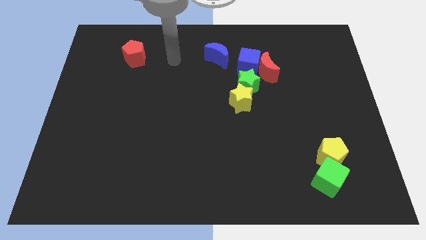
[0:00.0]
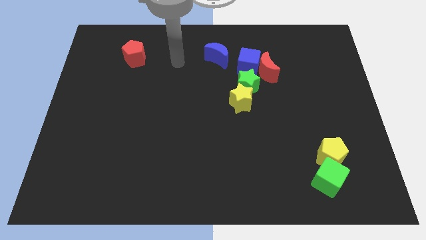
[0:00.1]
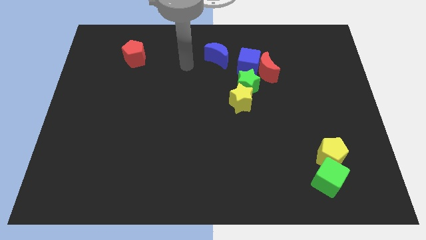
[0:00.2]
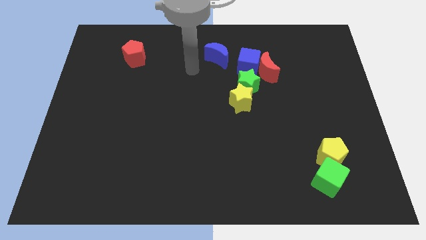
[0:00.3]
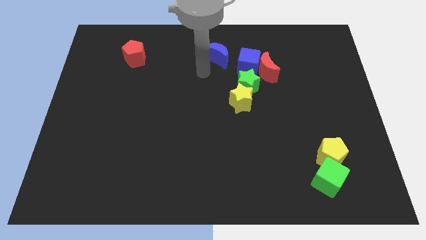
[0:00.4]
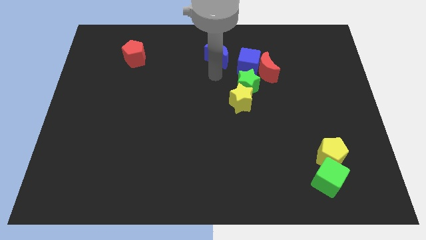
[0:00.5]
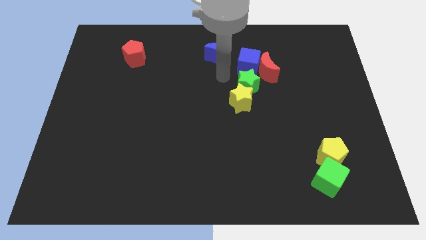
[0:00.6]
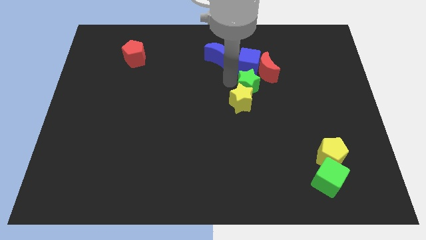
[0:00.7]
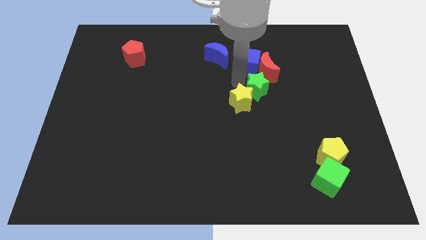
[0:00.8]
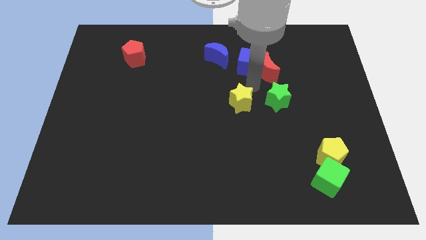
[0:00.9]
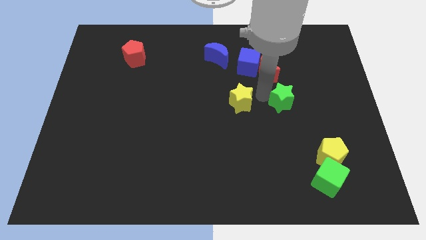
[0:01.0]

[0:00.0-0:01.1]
move the yellow star away from the green star

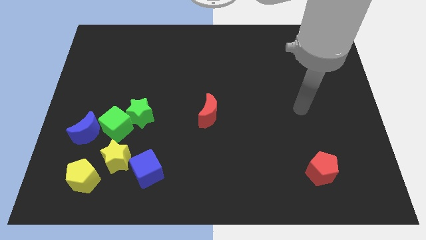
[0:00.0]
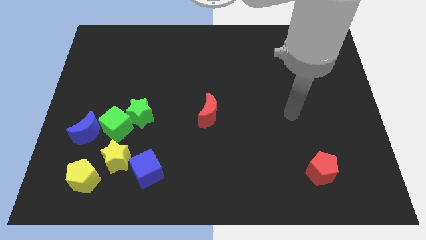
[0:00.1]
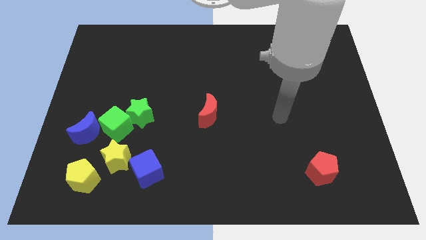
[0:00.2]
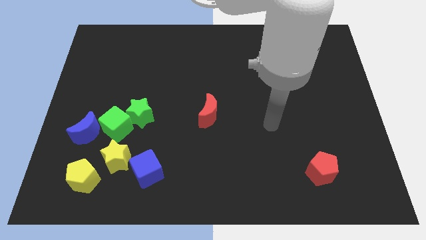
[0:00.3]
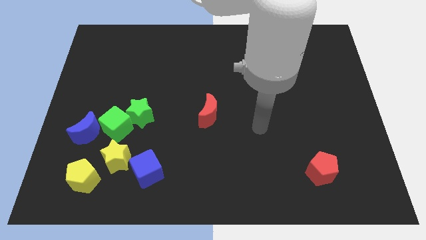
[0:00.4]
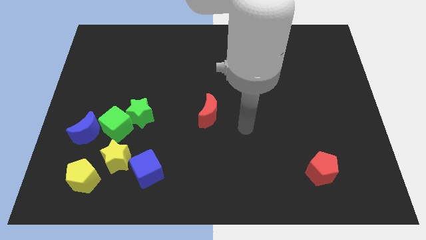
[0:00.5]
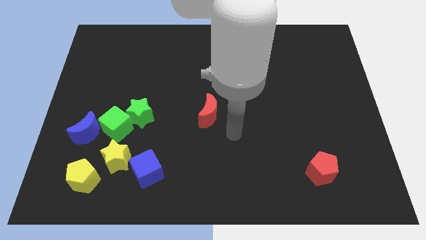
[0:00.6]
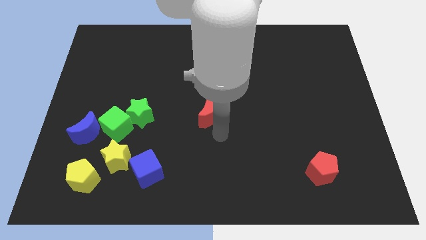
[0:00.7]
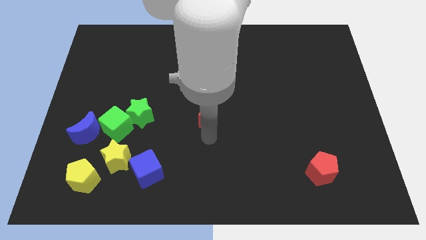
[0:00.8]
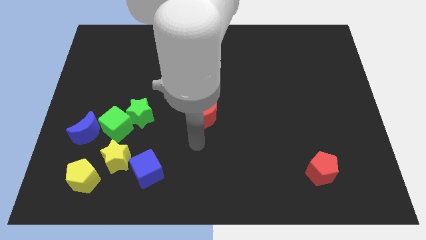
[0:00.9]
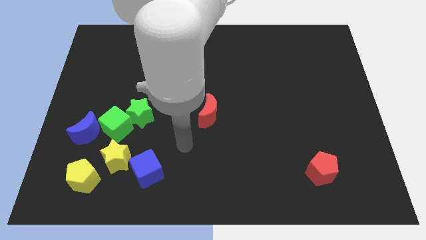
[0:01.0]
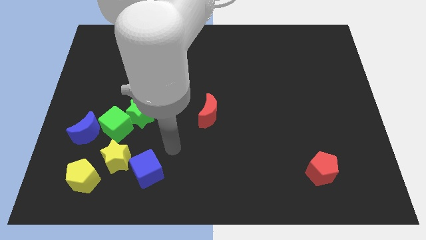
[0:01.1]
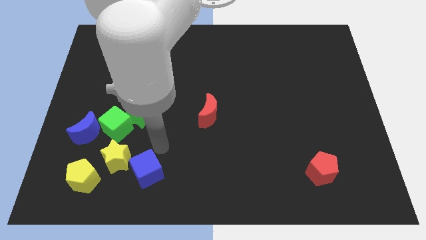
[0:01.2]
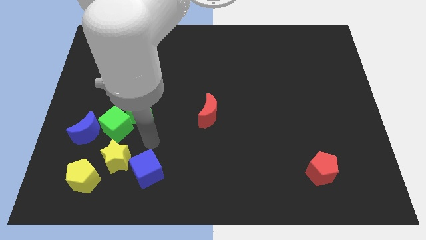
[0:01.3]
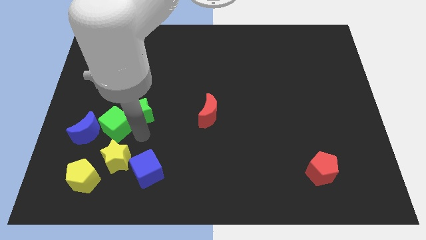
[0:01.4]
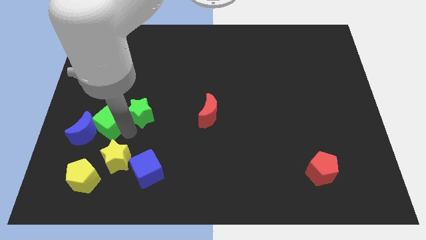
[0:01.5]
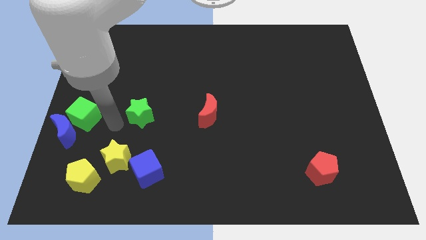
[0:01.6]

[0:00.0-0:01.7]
pull the green star apart from the green cube

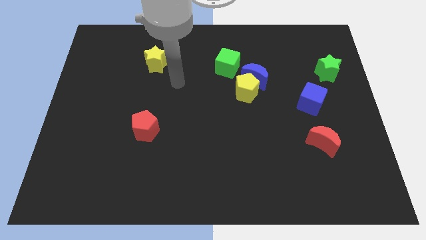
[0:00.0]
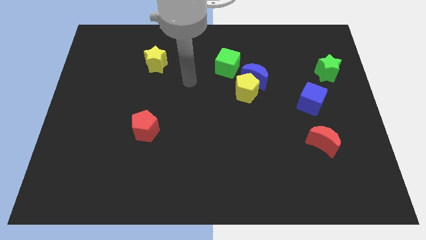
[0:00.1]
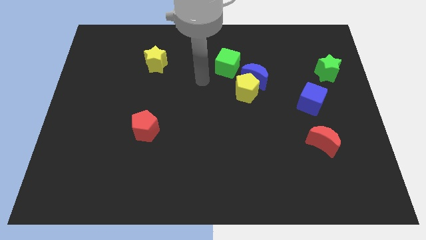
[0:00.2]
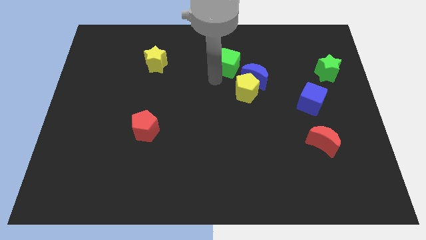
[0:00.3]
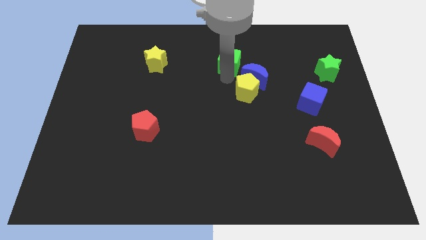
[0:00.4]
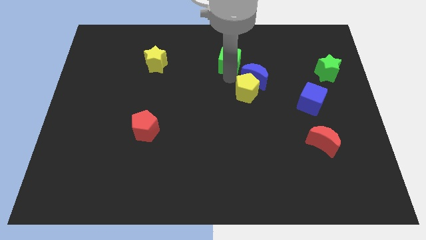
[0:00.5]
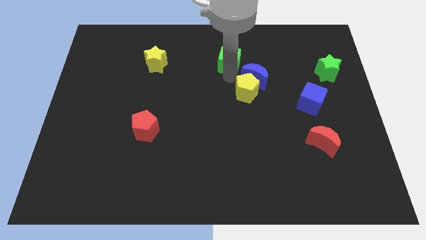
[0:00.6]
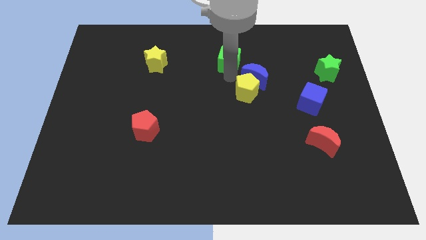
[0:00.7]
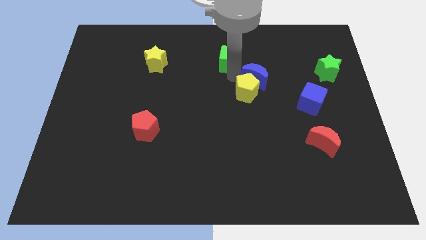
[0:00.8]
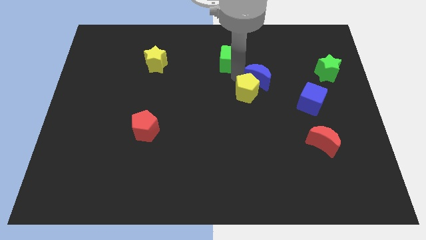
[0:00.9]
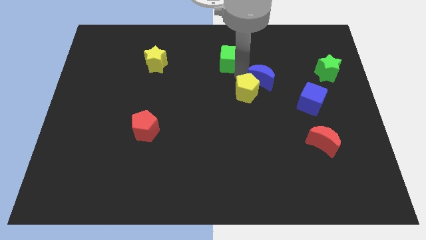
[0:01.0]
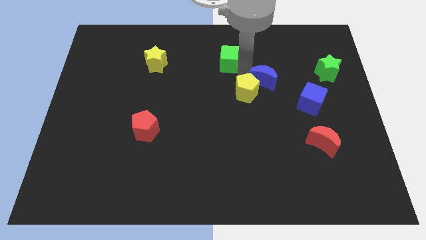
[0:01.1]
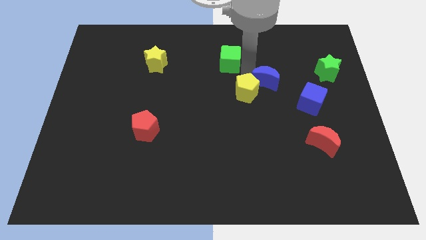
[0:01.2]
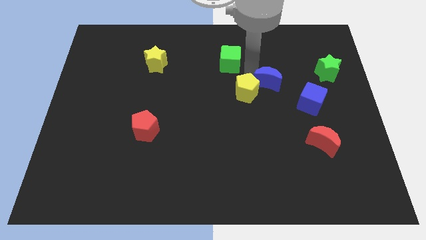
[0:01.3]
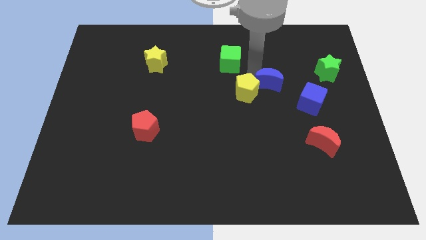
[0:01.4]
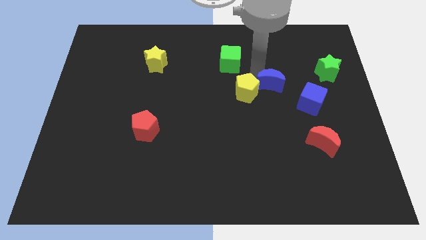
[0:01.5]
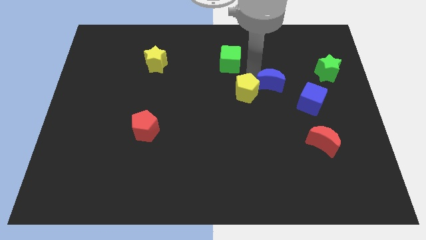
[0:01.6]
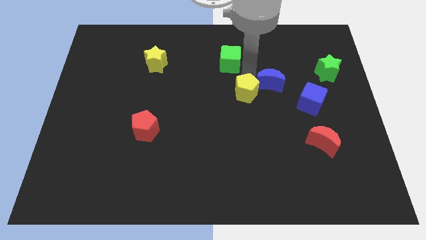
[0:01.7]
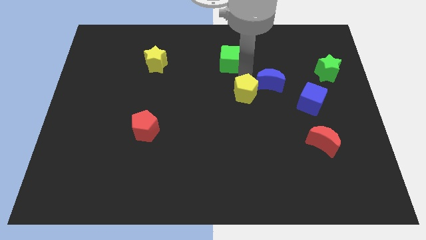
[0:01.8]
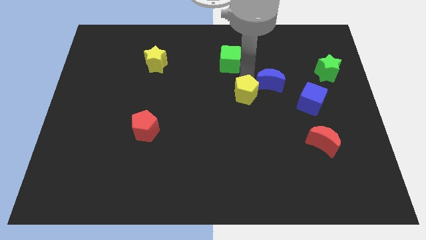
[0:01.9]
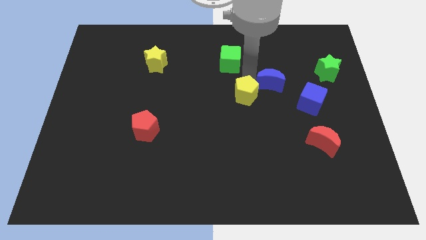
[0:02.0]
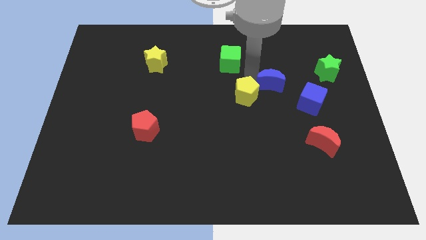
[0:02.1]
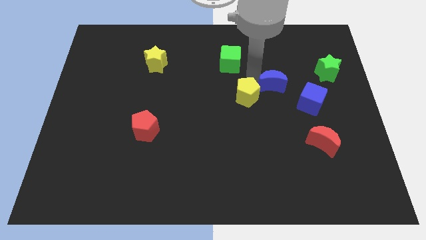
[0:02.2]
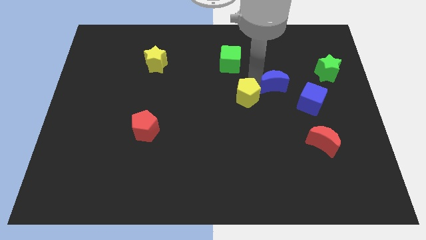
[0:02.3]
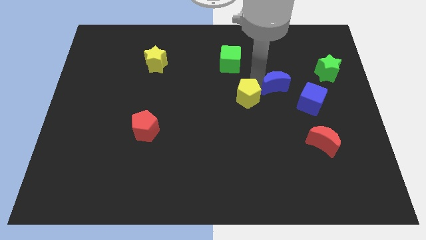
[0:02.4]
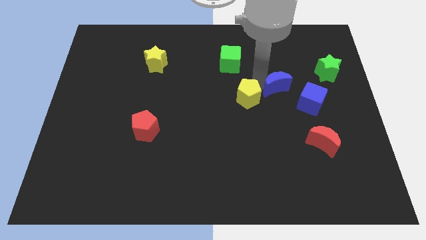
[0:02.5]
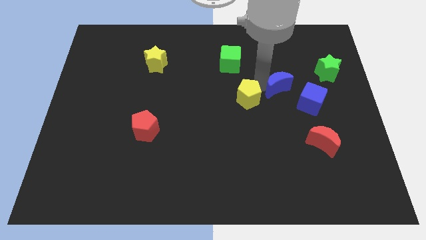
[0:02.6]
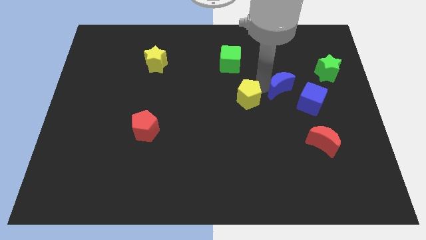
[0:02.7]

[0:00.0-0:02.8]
separate the blue moon from the yellow pentagon and green cube

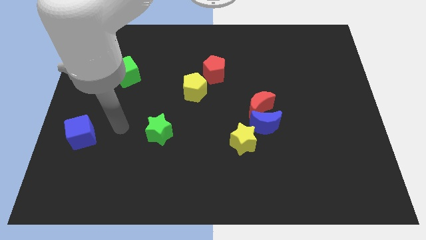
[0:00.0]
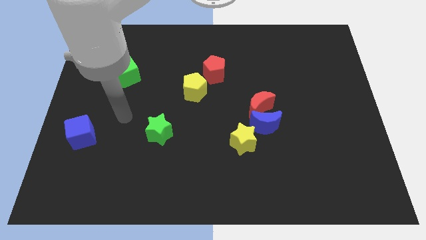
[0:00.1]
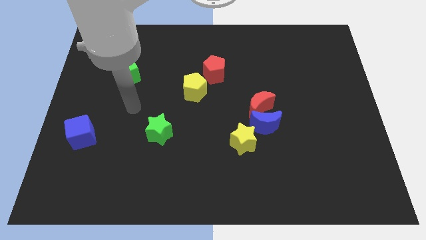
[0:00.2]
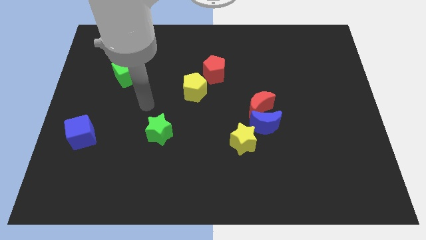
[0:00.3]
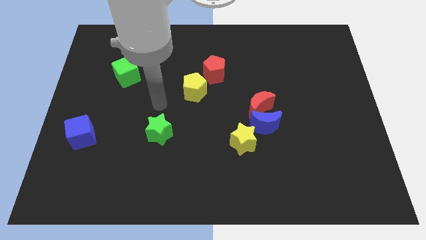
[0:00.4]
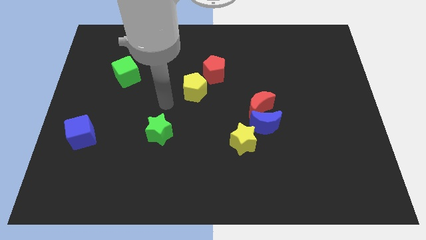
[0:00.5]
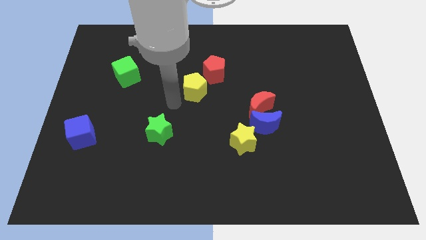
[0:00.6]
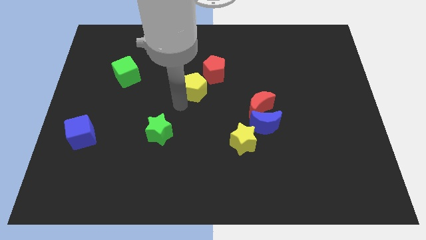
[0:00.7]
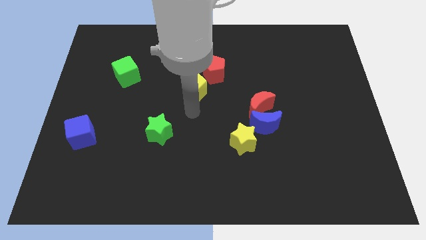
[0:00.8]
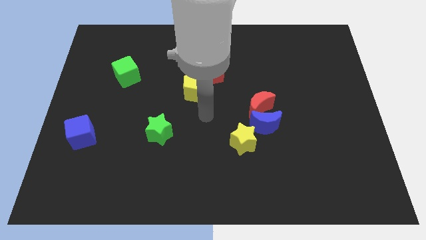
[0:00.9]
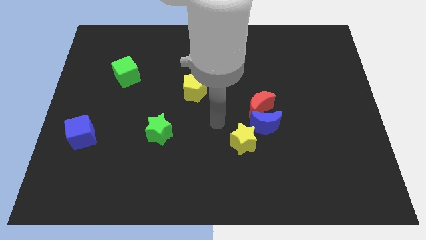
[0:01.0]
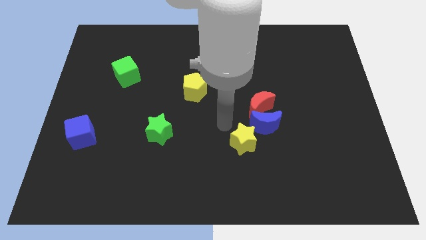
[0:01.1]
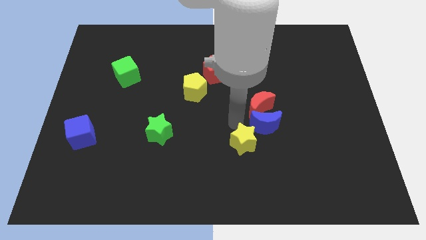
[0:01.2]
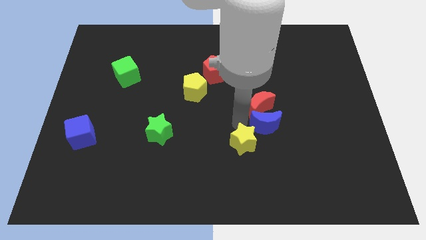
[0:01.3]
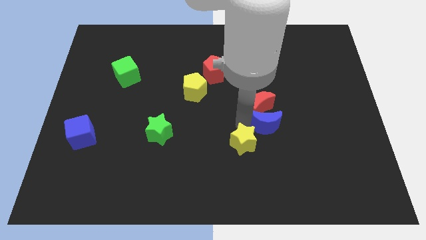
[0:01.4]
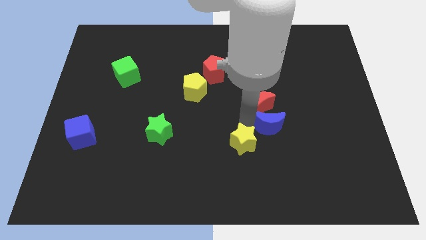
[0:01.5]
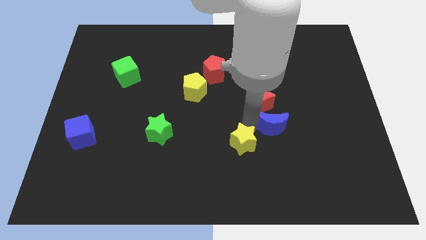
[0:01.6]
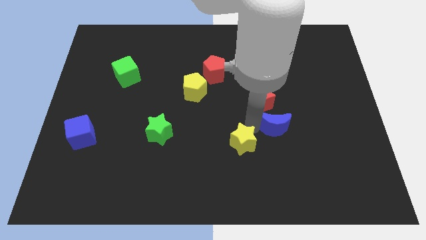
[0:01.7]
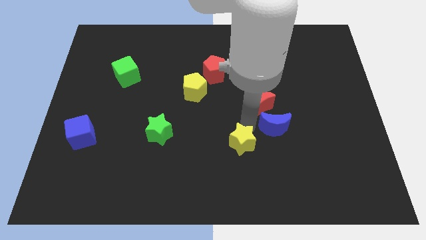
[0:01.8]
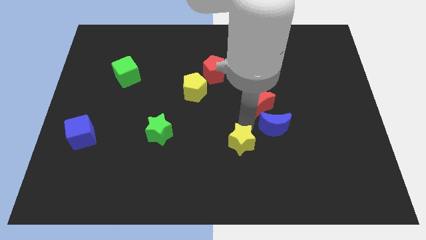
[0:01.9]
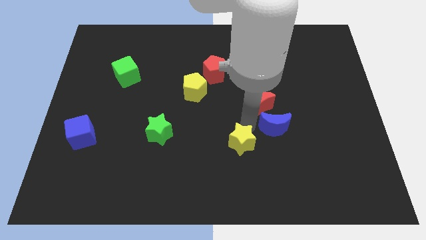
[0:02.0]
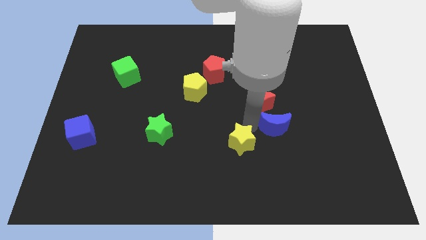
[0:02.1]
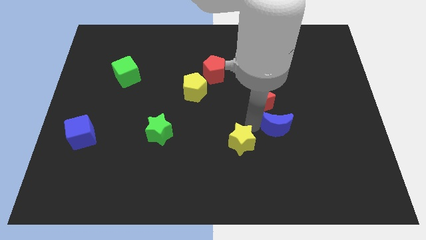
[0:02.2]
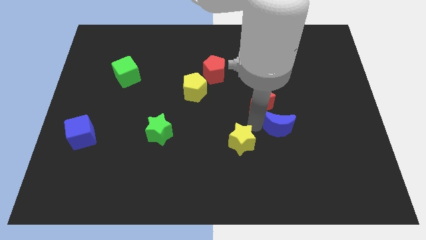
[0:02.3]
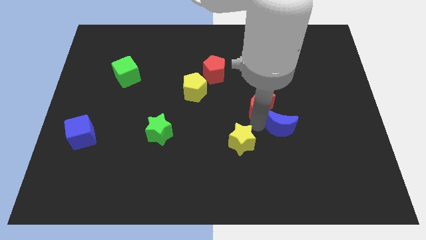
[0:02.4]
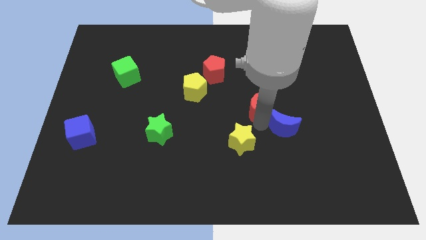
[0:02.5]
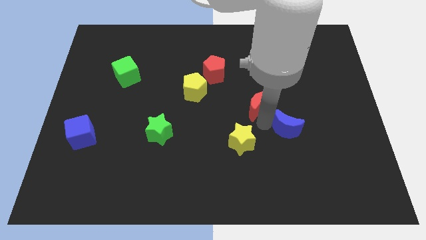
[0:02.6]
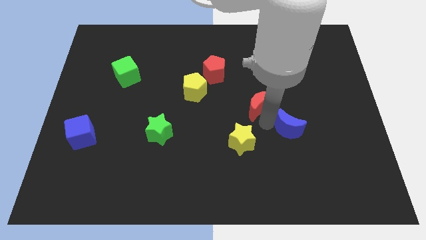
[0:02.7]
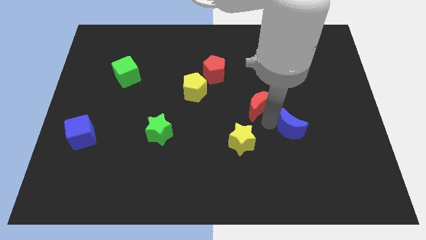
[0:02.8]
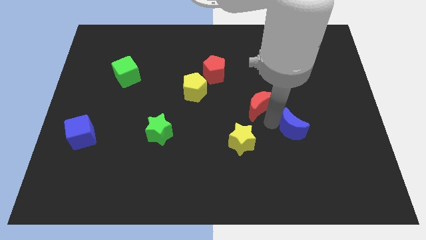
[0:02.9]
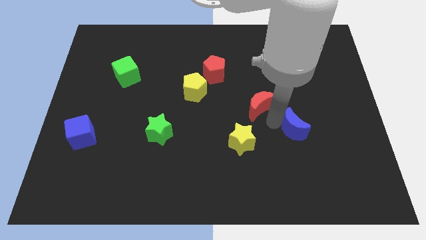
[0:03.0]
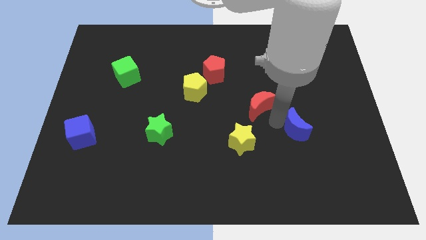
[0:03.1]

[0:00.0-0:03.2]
separate the blue moon from the red moon and yellow star

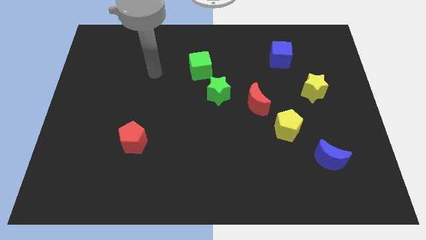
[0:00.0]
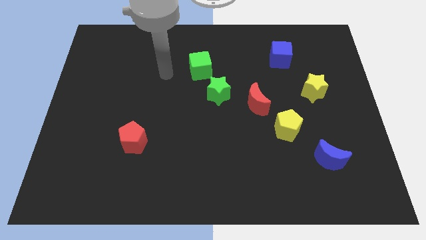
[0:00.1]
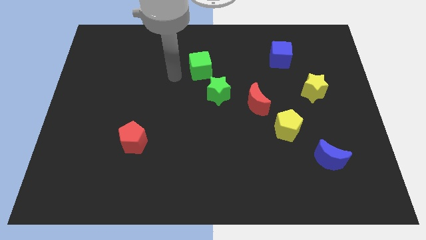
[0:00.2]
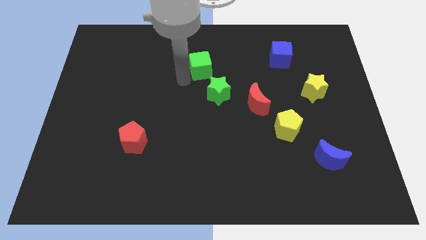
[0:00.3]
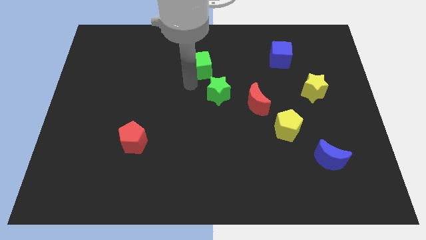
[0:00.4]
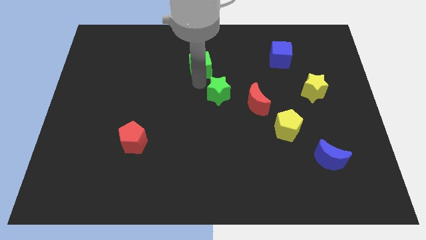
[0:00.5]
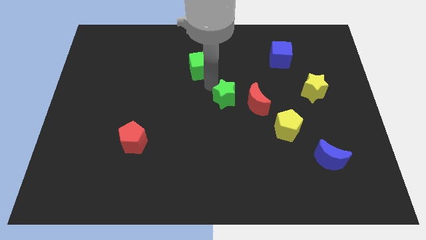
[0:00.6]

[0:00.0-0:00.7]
pull the green cube apart from the green star
